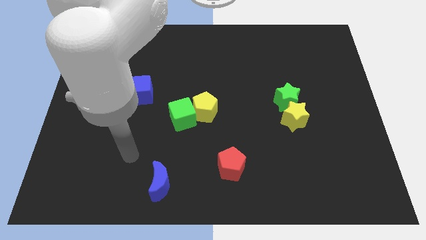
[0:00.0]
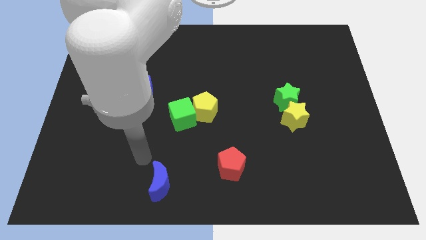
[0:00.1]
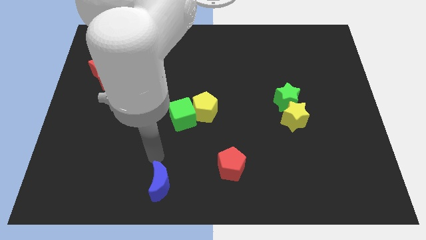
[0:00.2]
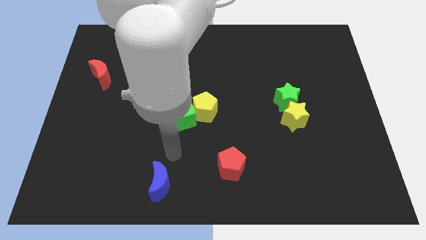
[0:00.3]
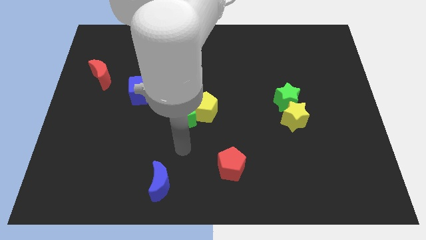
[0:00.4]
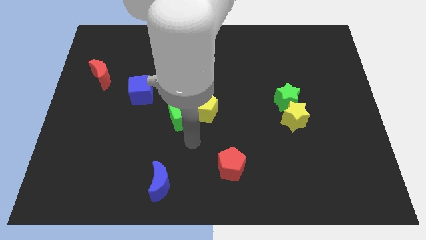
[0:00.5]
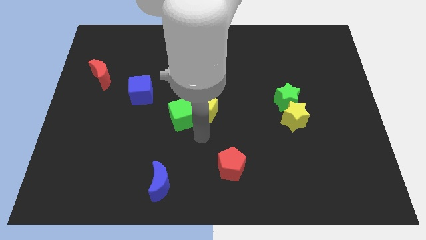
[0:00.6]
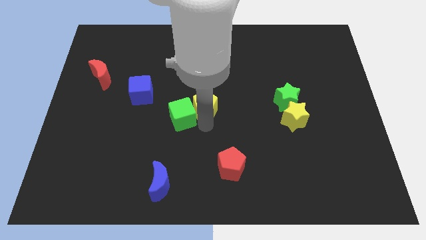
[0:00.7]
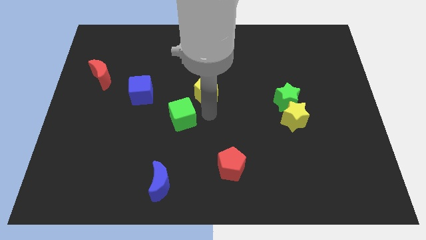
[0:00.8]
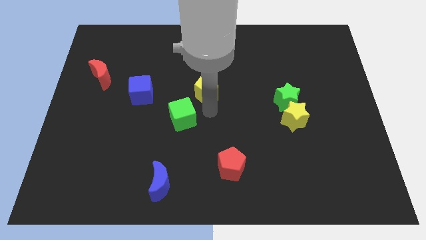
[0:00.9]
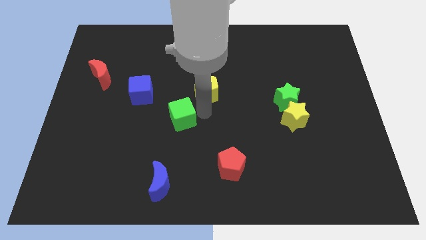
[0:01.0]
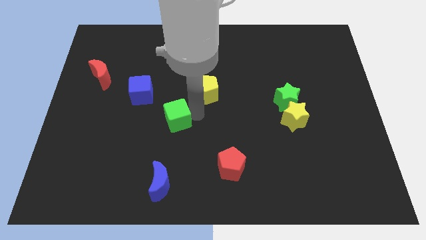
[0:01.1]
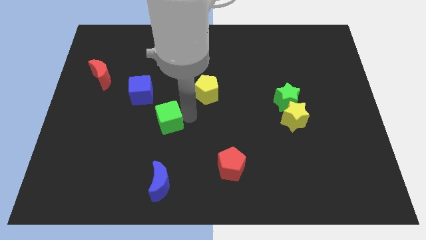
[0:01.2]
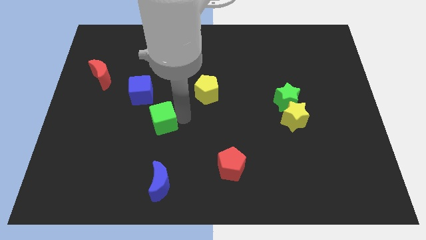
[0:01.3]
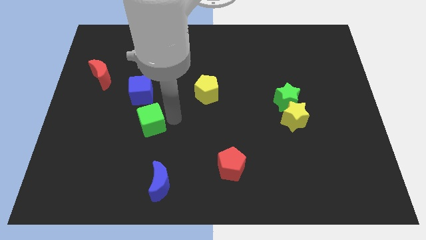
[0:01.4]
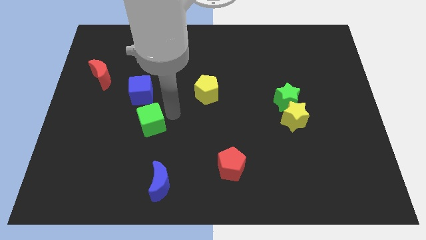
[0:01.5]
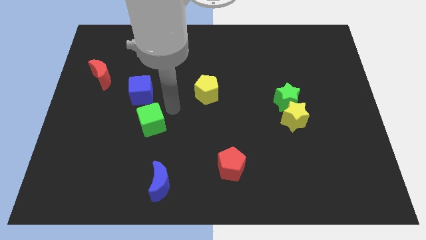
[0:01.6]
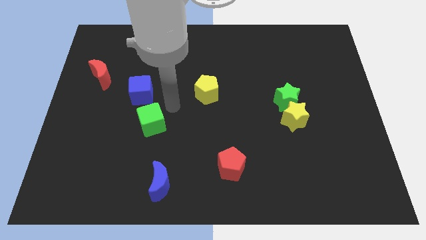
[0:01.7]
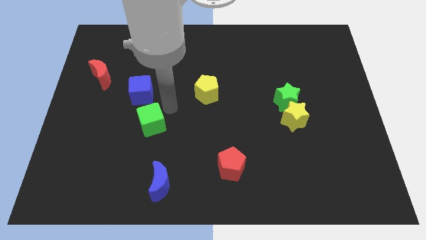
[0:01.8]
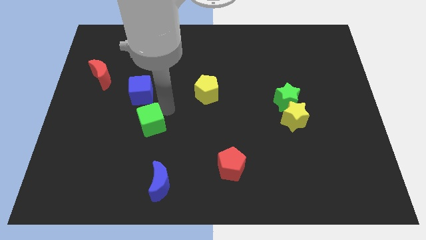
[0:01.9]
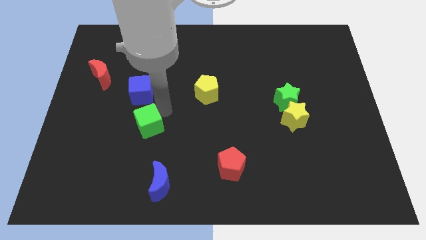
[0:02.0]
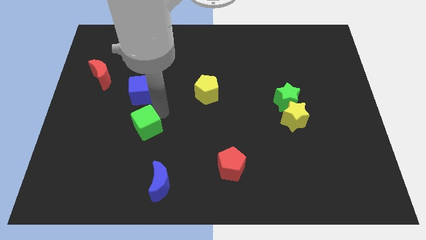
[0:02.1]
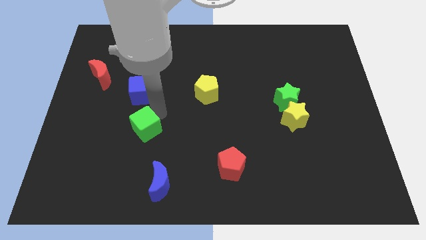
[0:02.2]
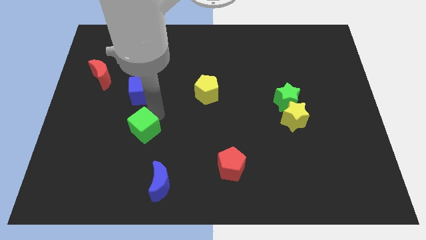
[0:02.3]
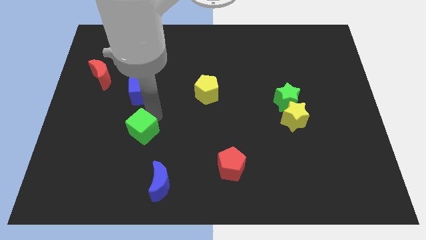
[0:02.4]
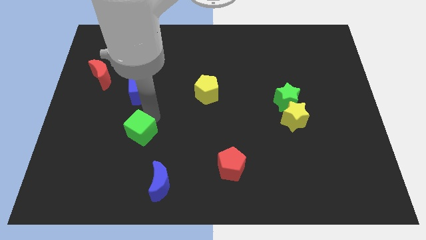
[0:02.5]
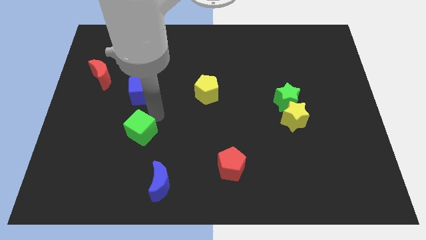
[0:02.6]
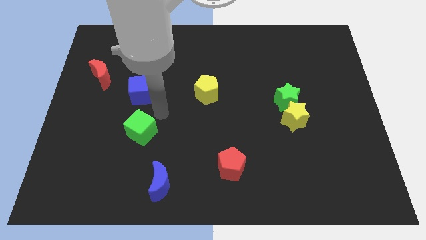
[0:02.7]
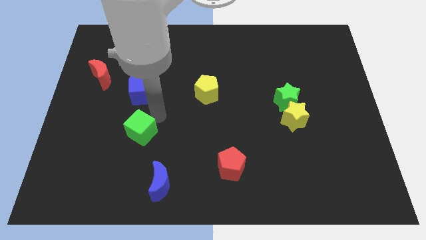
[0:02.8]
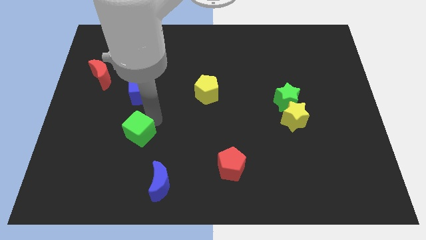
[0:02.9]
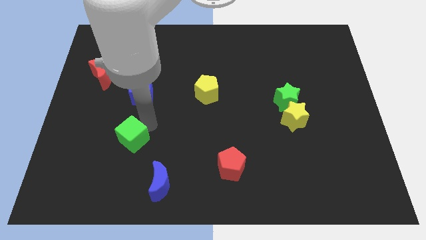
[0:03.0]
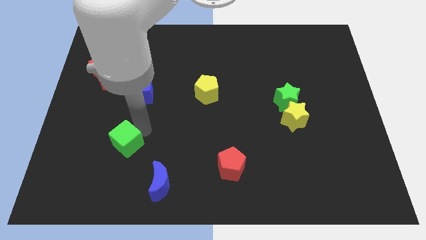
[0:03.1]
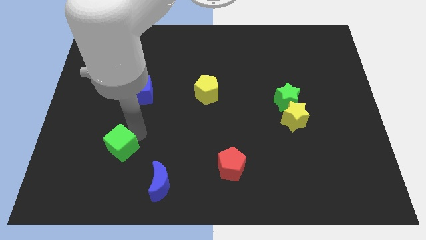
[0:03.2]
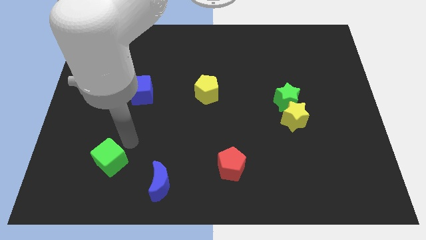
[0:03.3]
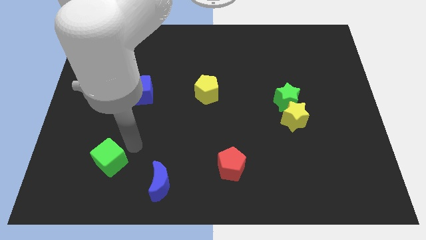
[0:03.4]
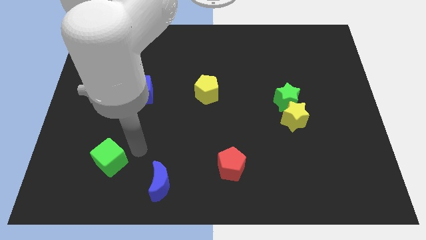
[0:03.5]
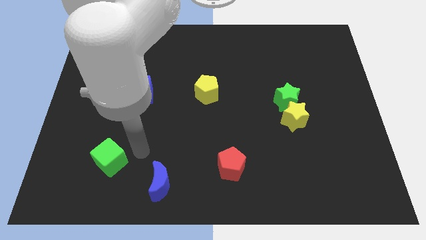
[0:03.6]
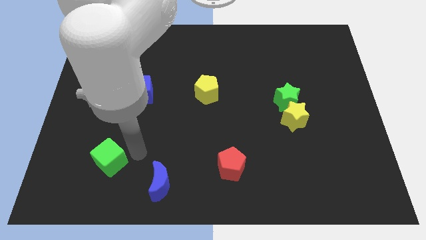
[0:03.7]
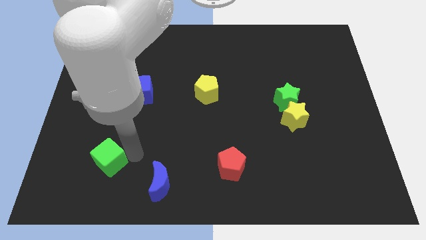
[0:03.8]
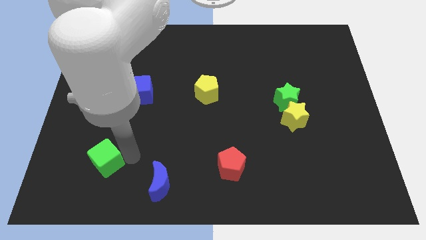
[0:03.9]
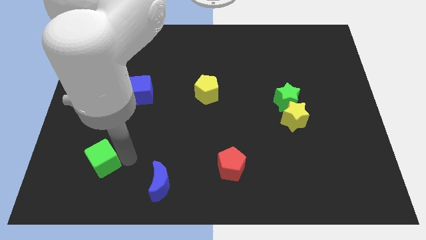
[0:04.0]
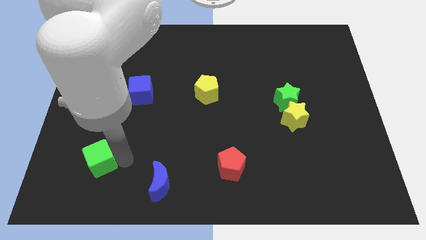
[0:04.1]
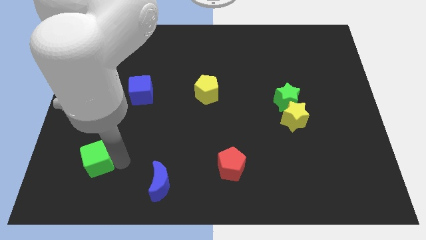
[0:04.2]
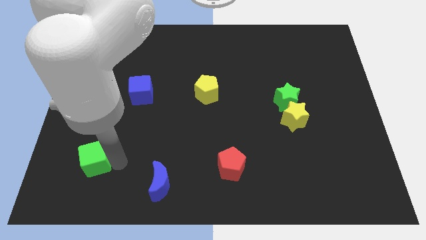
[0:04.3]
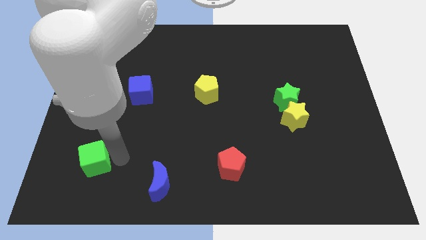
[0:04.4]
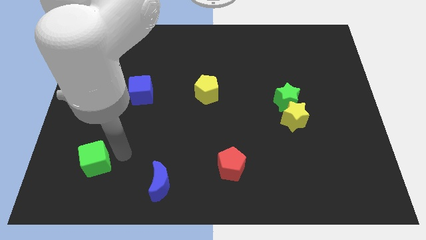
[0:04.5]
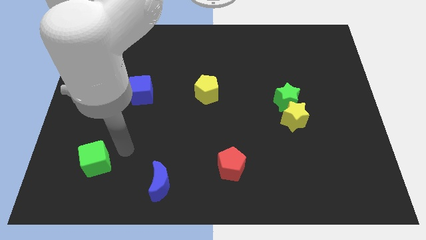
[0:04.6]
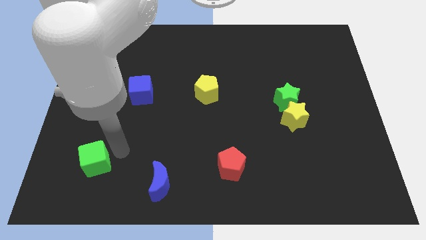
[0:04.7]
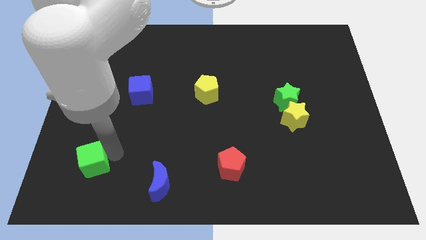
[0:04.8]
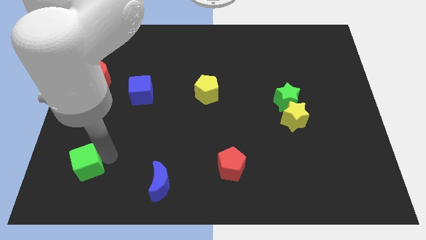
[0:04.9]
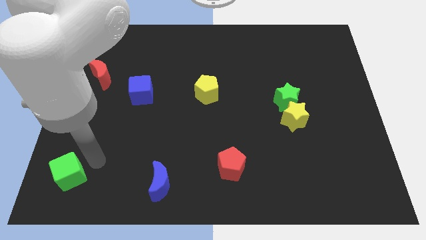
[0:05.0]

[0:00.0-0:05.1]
slide the green cube to the bottom left of the board

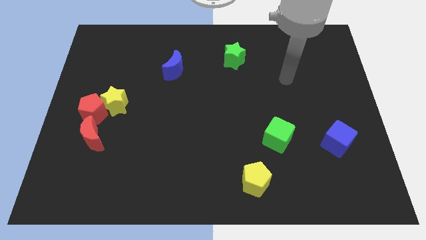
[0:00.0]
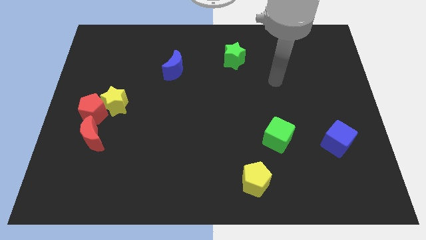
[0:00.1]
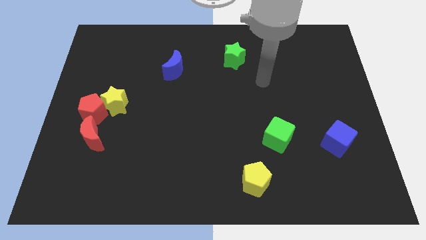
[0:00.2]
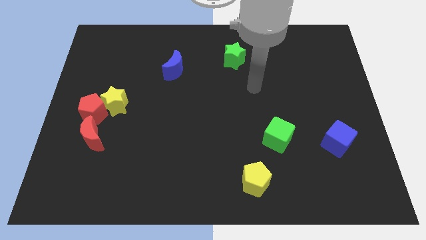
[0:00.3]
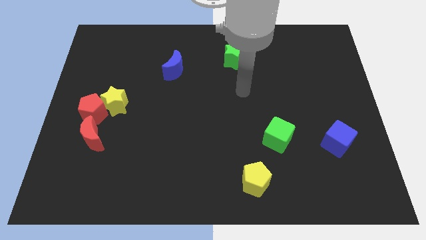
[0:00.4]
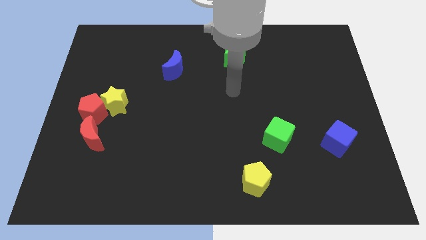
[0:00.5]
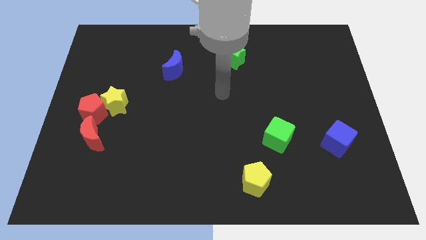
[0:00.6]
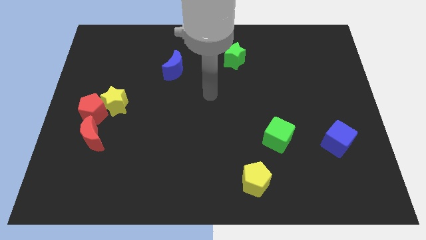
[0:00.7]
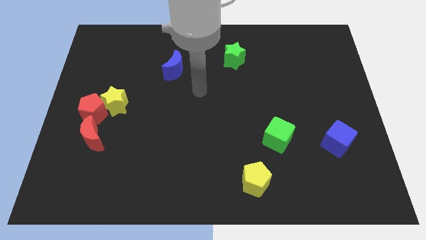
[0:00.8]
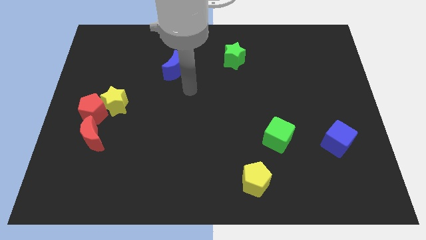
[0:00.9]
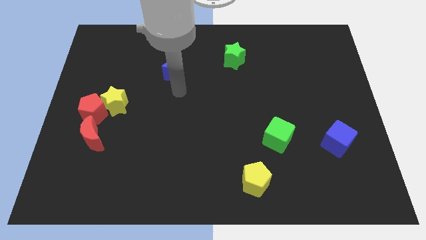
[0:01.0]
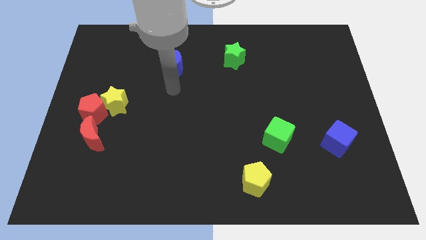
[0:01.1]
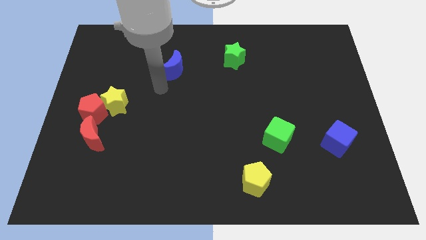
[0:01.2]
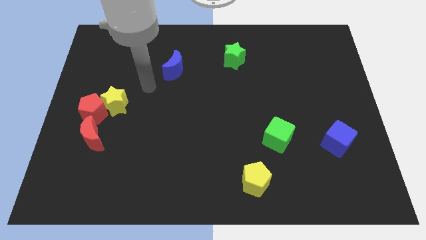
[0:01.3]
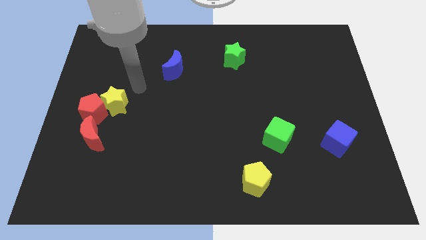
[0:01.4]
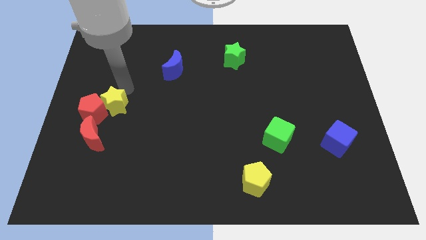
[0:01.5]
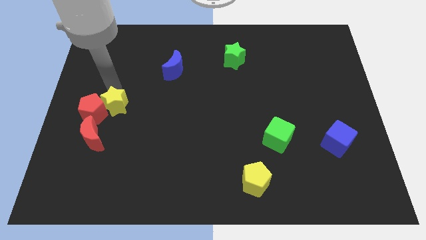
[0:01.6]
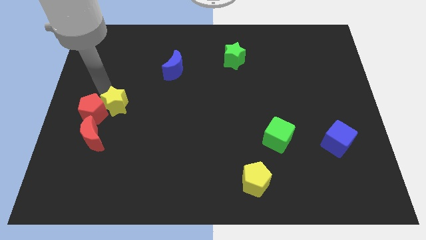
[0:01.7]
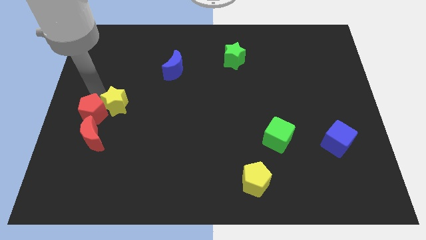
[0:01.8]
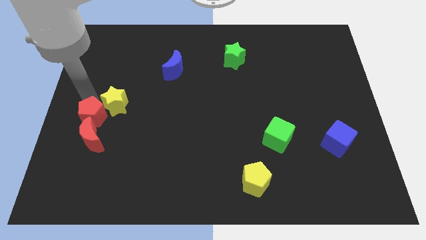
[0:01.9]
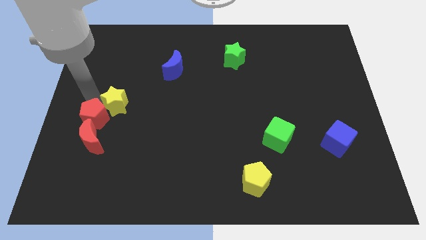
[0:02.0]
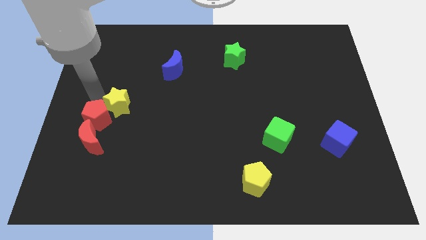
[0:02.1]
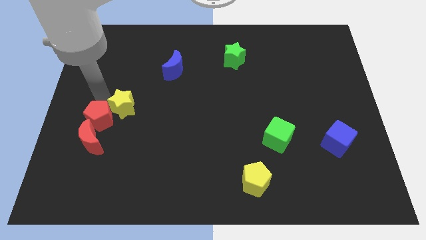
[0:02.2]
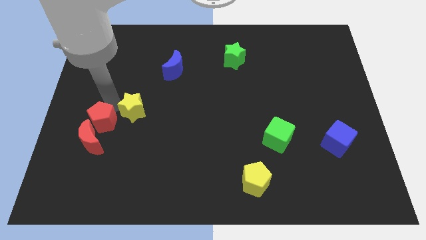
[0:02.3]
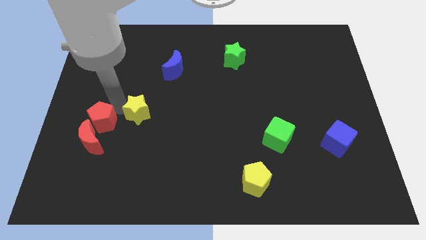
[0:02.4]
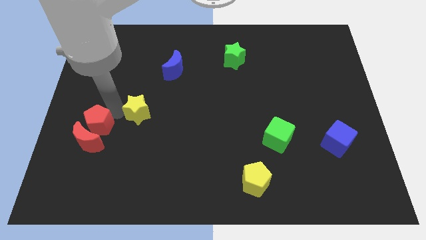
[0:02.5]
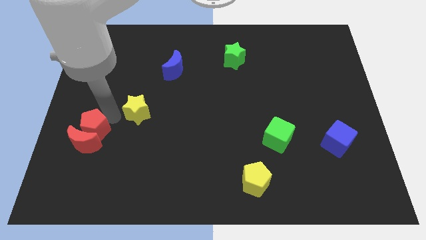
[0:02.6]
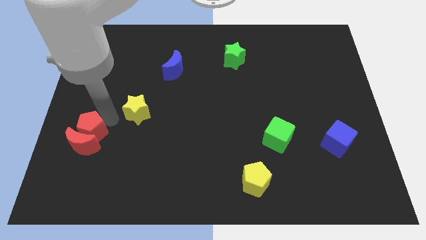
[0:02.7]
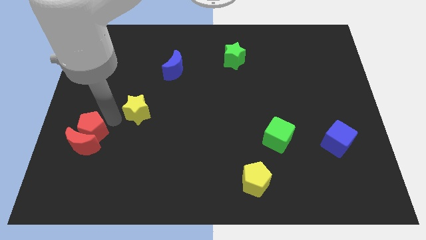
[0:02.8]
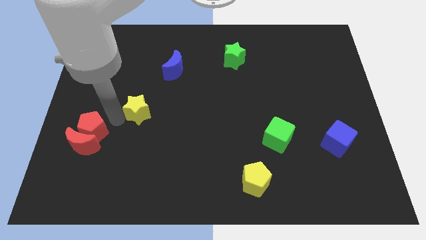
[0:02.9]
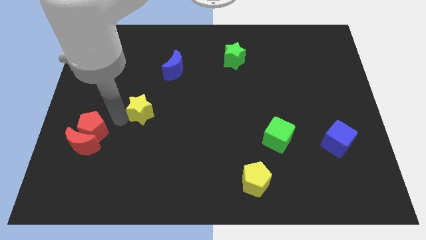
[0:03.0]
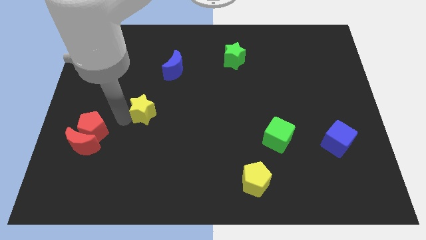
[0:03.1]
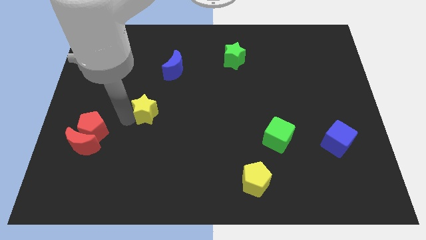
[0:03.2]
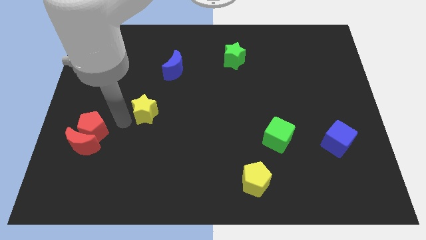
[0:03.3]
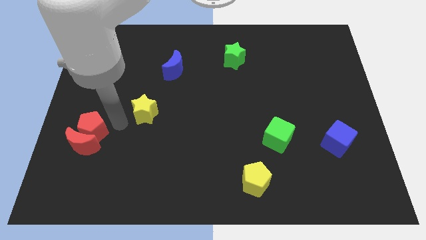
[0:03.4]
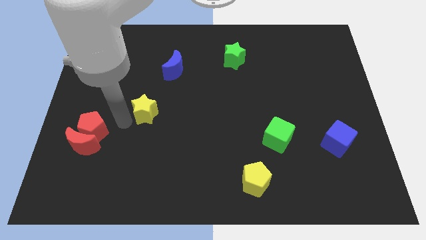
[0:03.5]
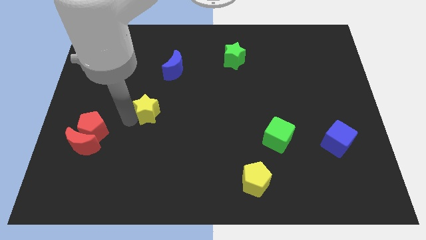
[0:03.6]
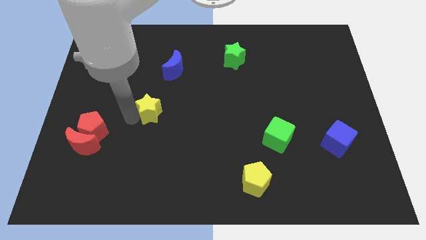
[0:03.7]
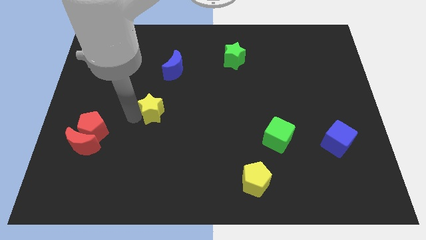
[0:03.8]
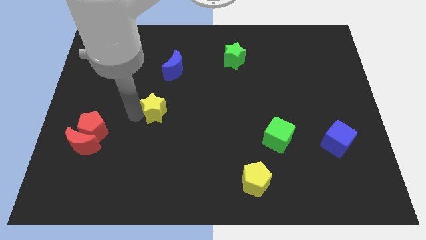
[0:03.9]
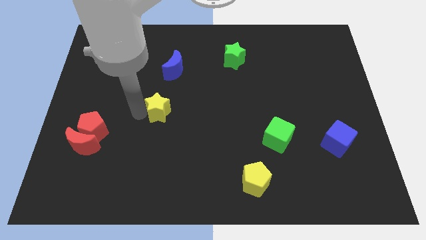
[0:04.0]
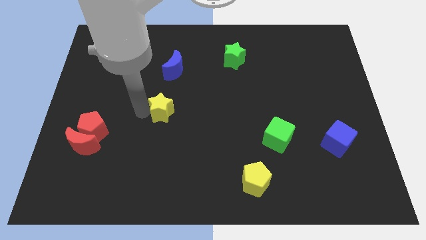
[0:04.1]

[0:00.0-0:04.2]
slide the yellow star to the center
